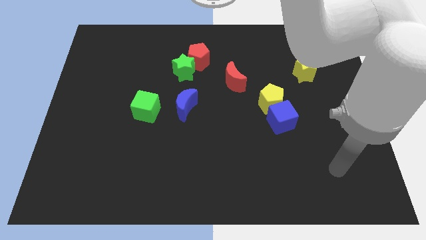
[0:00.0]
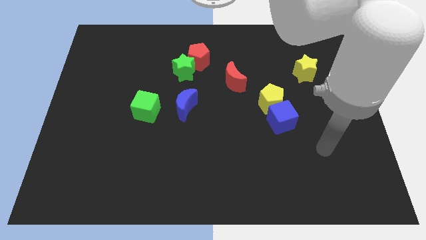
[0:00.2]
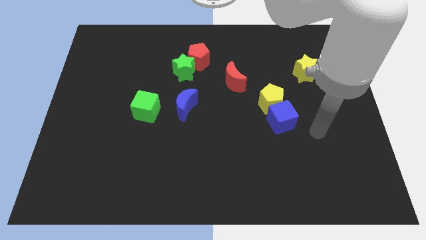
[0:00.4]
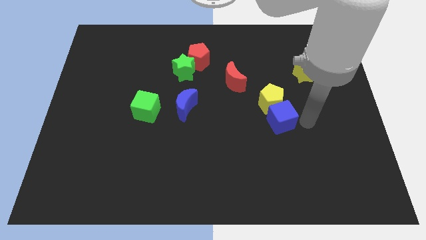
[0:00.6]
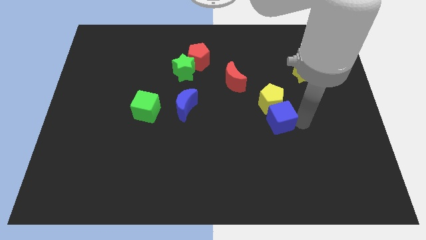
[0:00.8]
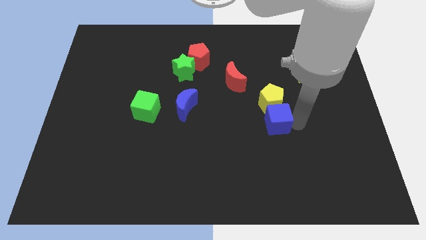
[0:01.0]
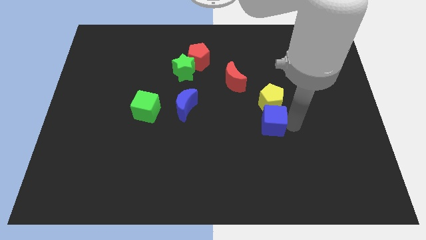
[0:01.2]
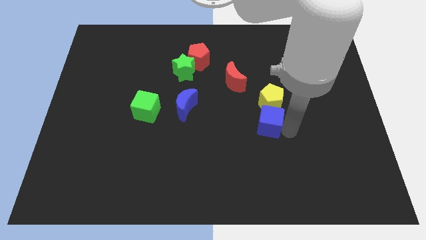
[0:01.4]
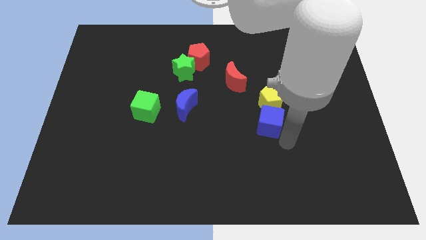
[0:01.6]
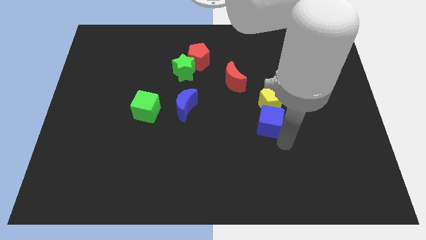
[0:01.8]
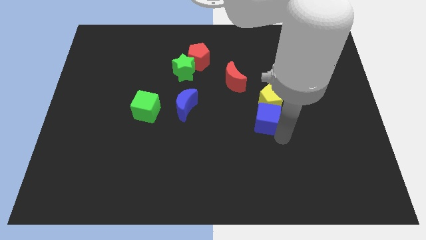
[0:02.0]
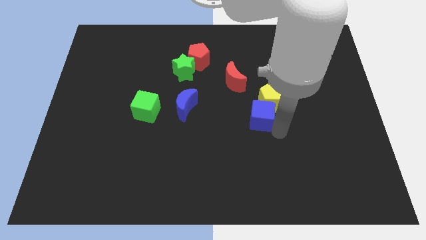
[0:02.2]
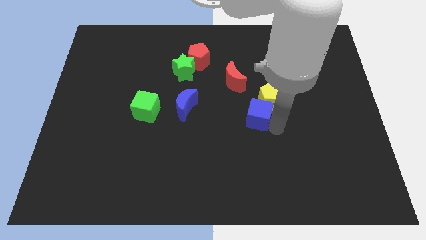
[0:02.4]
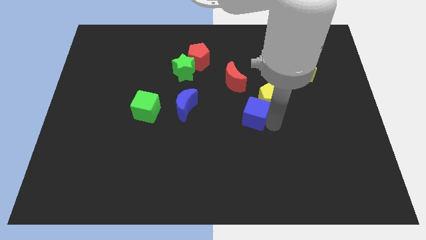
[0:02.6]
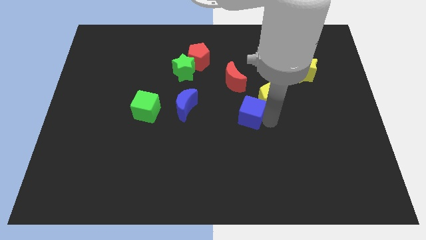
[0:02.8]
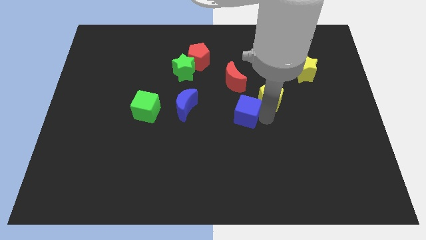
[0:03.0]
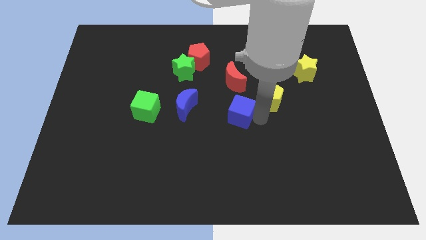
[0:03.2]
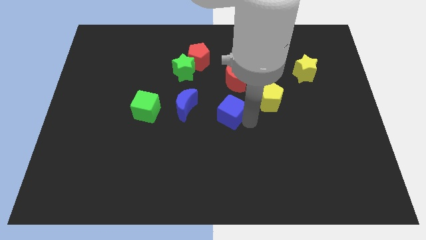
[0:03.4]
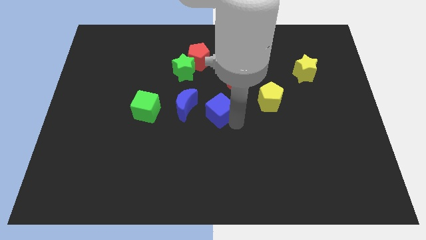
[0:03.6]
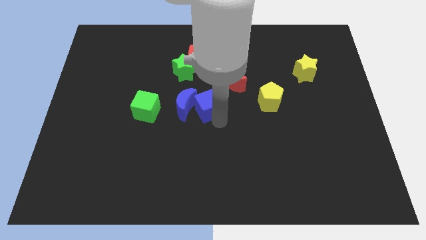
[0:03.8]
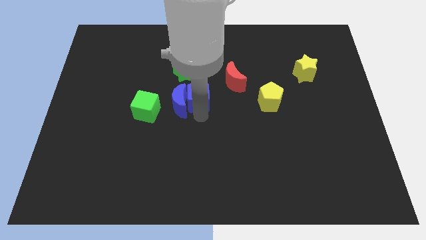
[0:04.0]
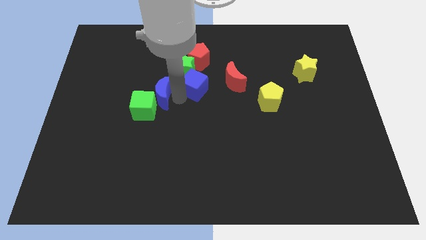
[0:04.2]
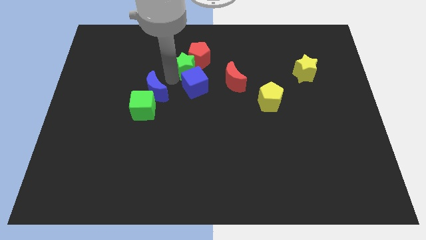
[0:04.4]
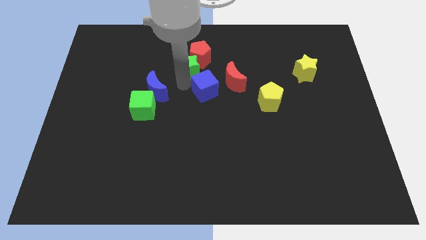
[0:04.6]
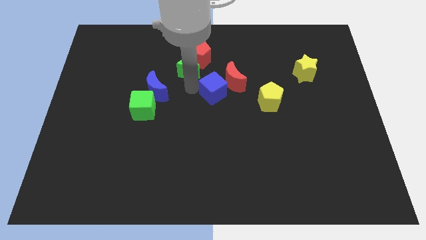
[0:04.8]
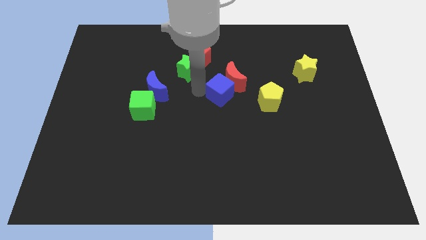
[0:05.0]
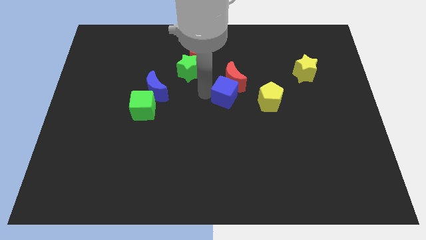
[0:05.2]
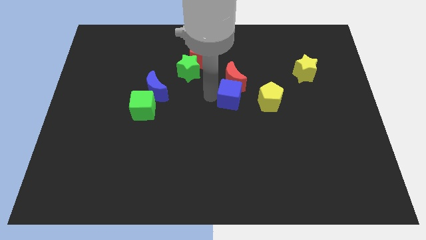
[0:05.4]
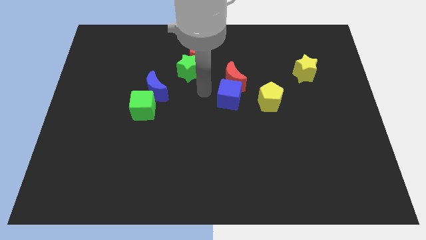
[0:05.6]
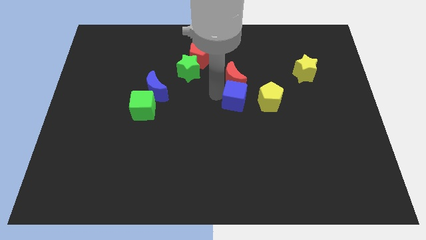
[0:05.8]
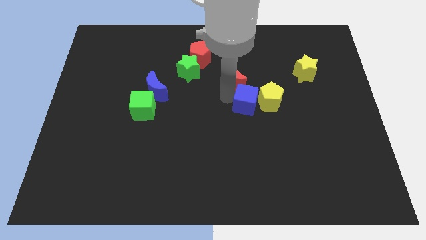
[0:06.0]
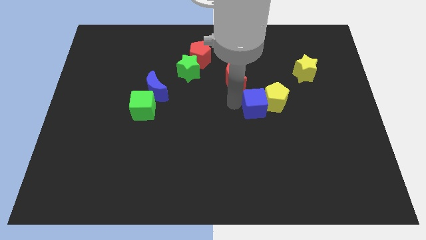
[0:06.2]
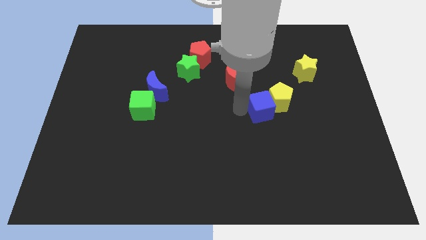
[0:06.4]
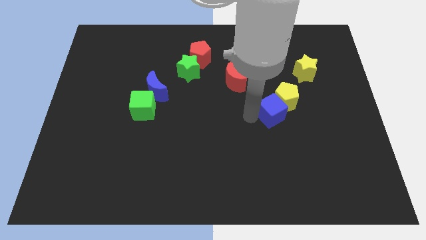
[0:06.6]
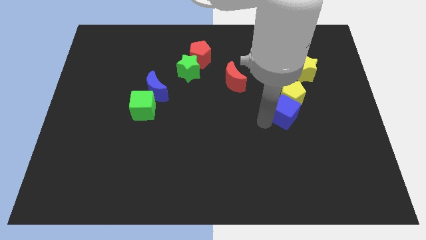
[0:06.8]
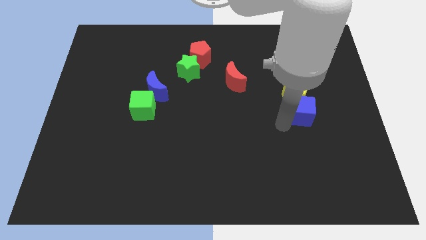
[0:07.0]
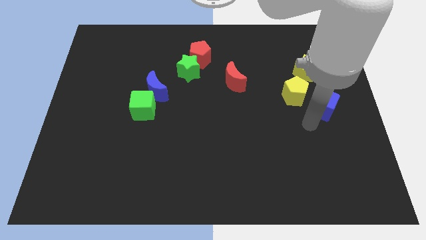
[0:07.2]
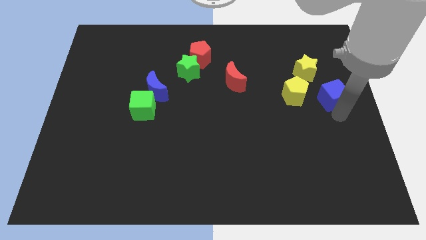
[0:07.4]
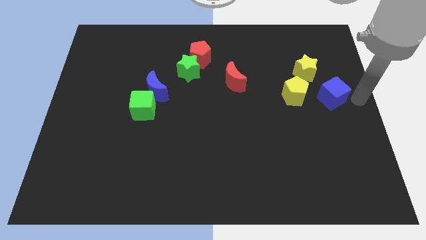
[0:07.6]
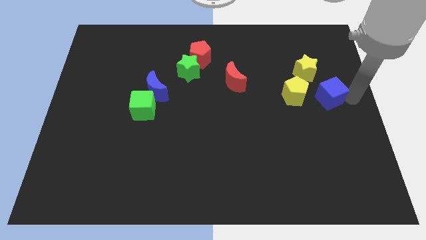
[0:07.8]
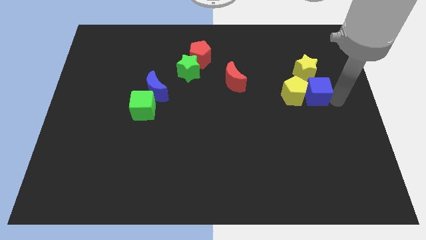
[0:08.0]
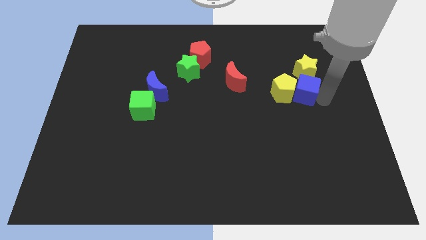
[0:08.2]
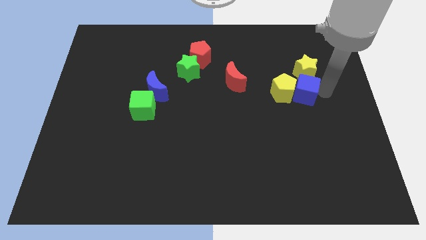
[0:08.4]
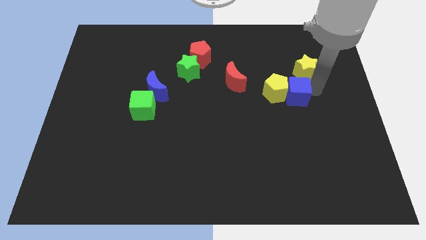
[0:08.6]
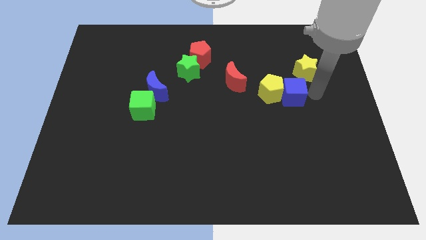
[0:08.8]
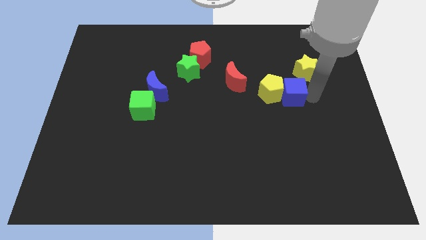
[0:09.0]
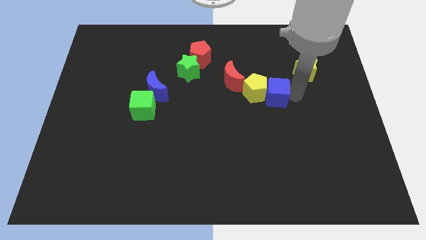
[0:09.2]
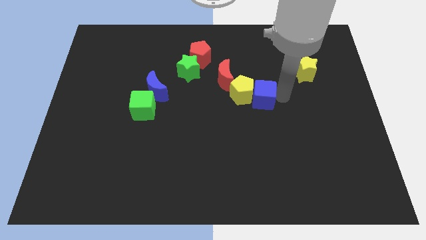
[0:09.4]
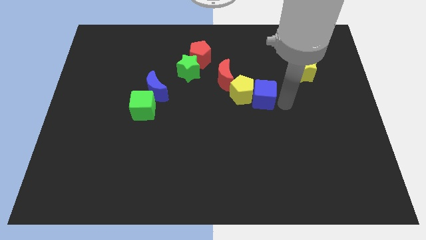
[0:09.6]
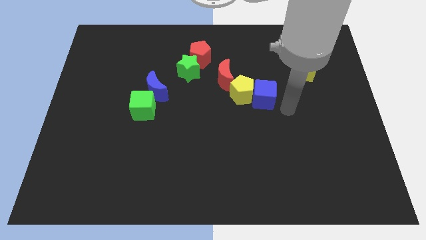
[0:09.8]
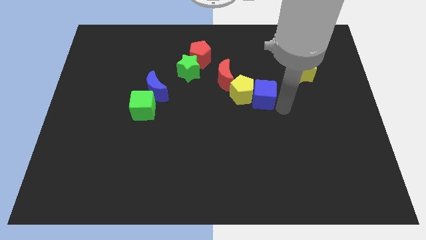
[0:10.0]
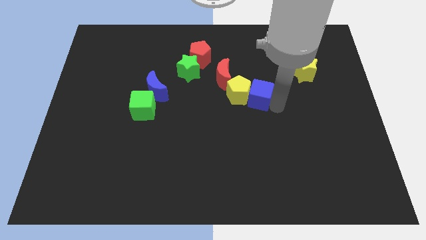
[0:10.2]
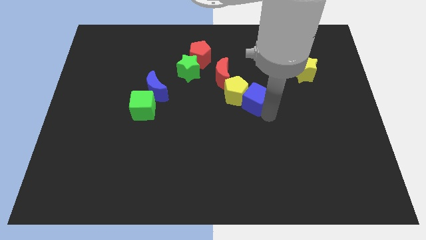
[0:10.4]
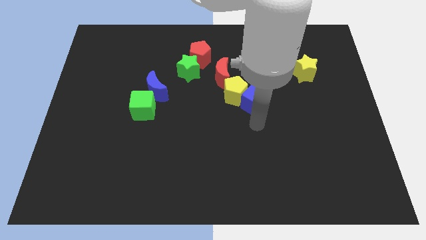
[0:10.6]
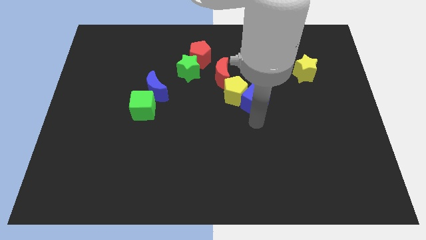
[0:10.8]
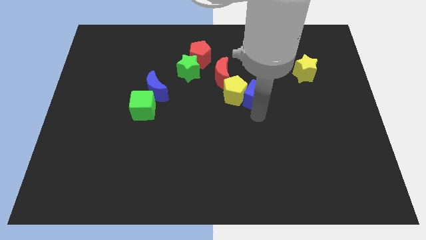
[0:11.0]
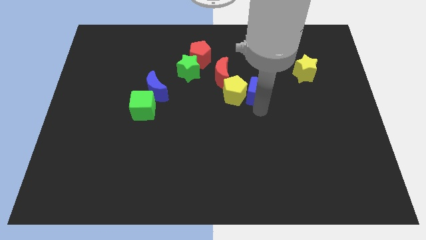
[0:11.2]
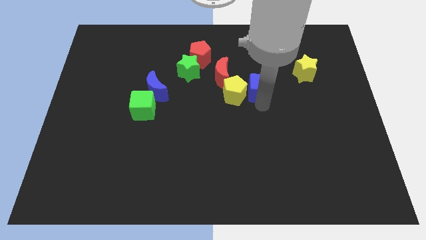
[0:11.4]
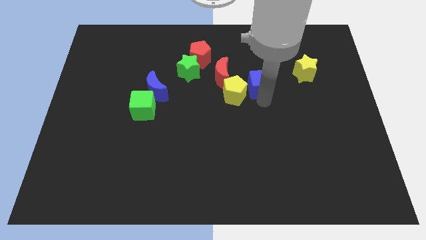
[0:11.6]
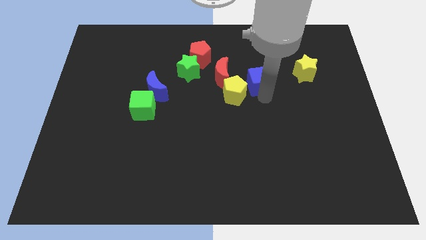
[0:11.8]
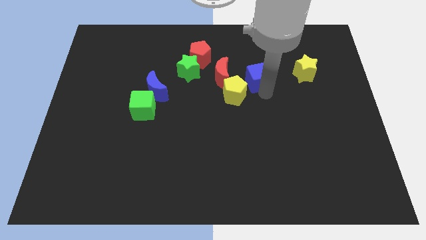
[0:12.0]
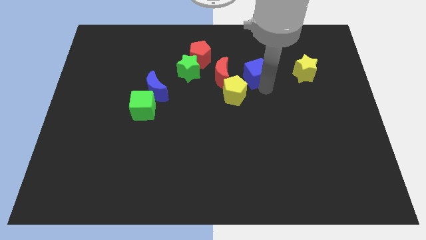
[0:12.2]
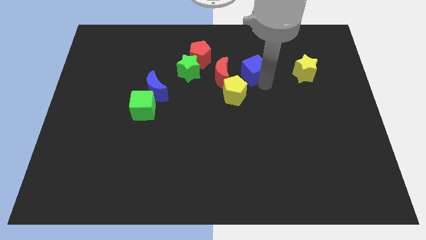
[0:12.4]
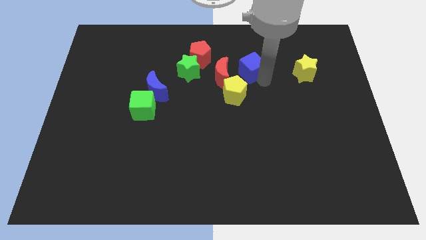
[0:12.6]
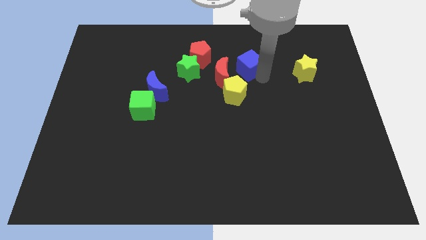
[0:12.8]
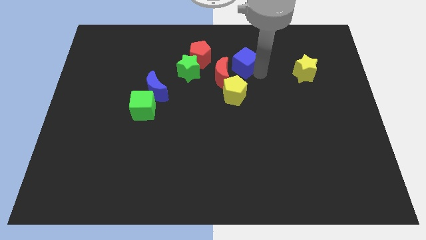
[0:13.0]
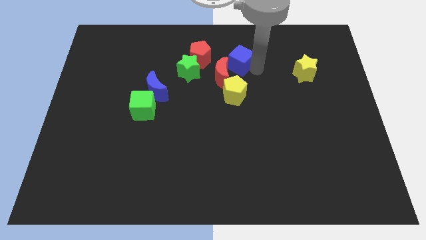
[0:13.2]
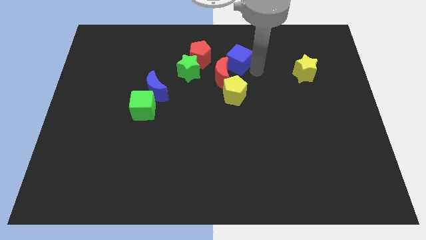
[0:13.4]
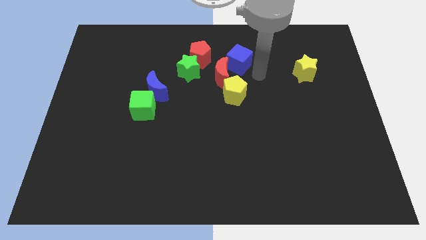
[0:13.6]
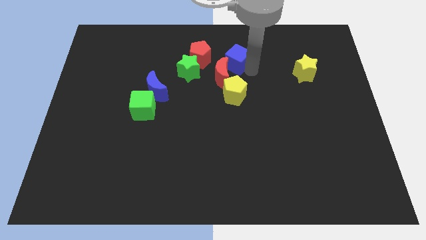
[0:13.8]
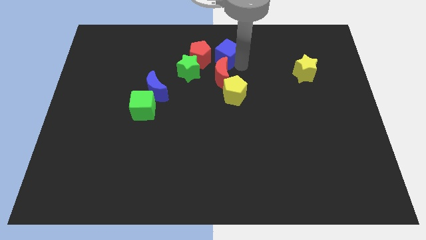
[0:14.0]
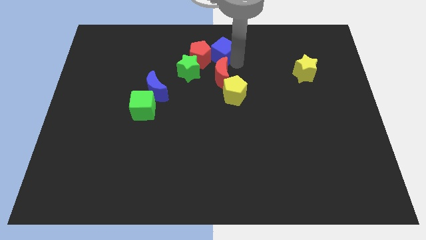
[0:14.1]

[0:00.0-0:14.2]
slide the blue cube to the top side
